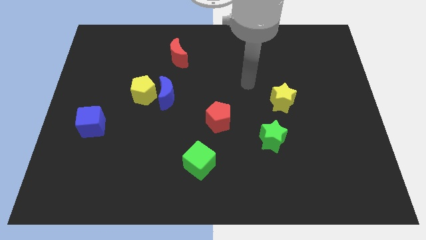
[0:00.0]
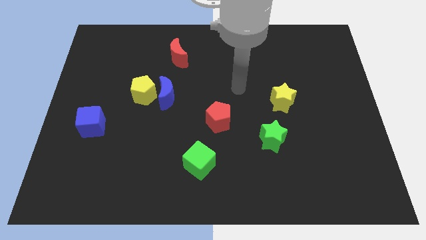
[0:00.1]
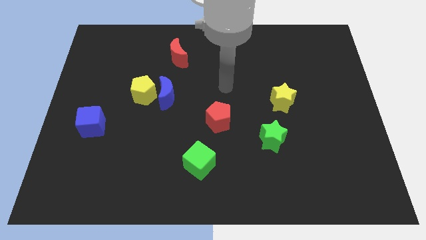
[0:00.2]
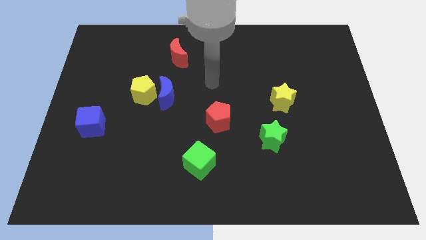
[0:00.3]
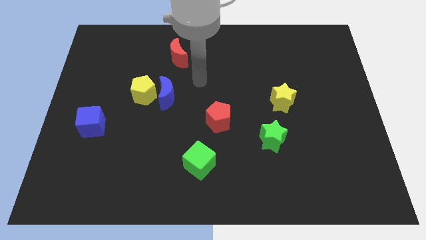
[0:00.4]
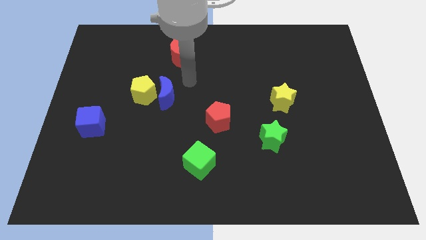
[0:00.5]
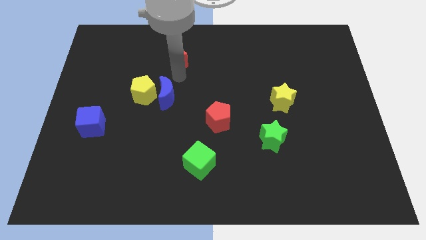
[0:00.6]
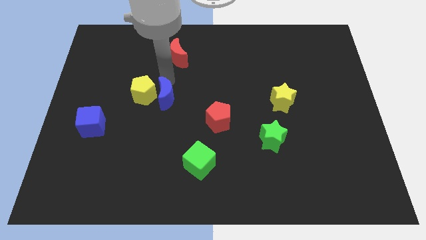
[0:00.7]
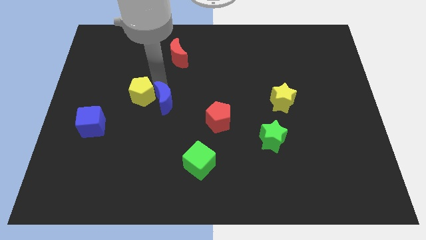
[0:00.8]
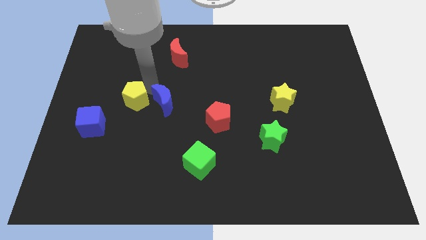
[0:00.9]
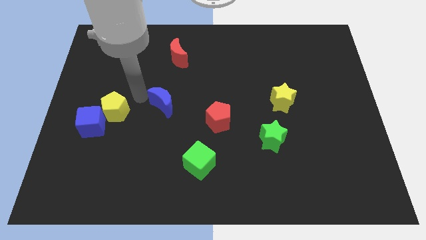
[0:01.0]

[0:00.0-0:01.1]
pull the blue moon apart from the yellow pentagon

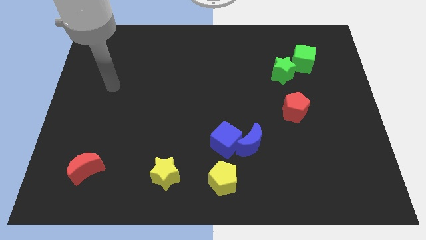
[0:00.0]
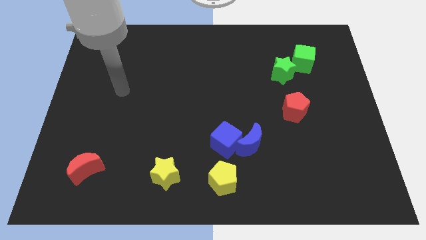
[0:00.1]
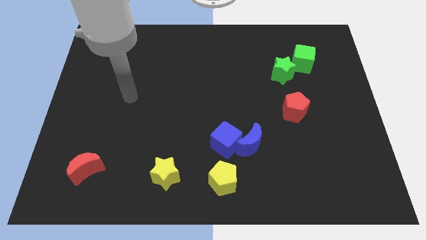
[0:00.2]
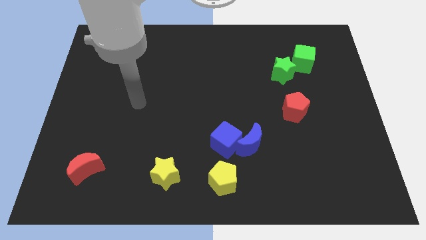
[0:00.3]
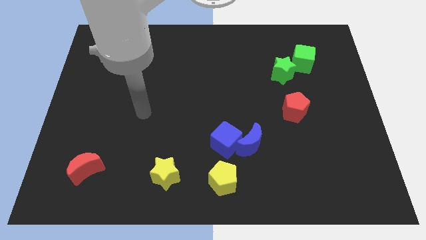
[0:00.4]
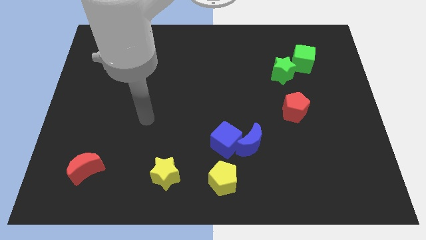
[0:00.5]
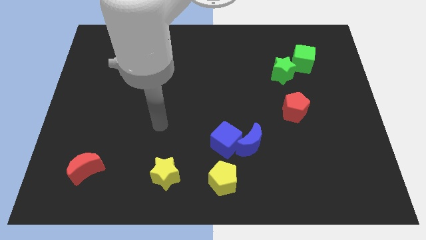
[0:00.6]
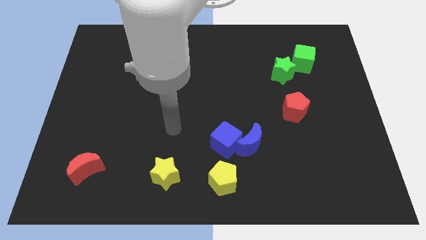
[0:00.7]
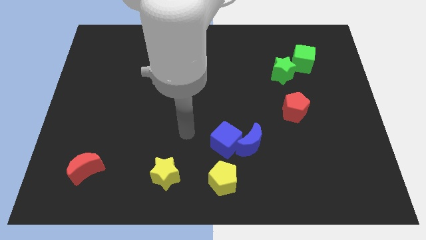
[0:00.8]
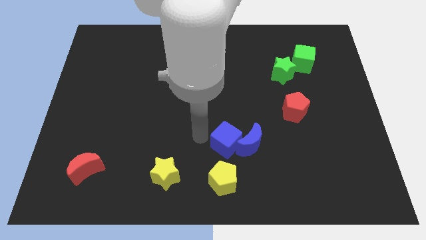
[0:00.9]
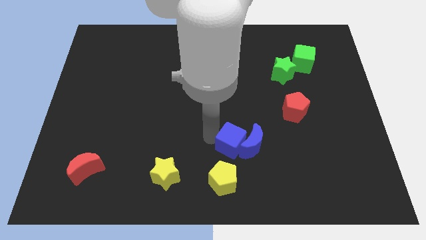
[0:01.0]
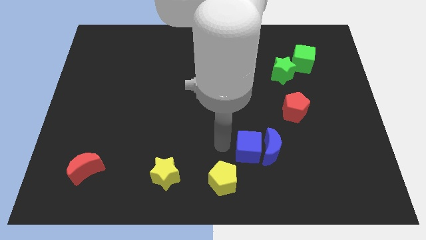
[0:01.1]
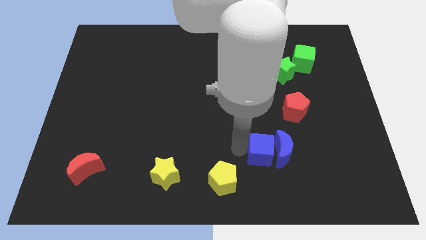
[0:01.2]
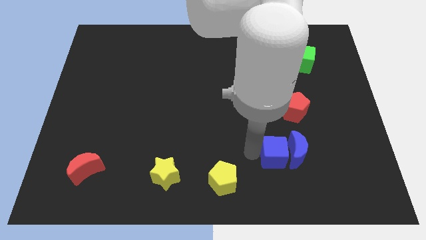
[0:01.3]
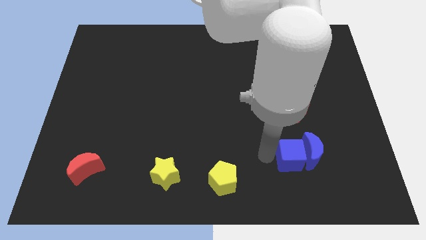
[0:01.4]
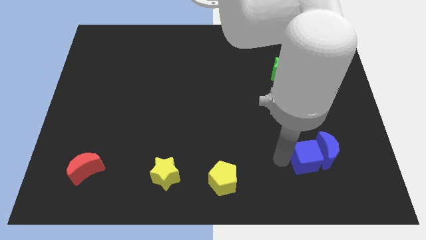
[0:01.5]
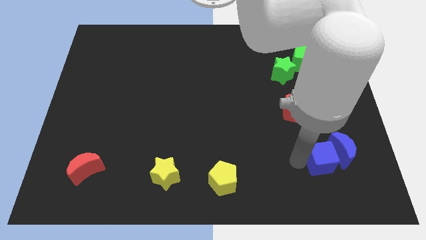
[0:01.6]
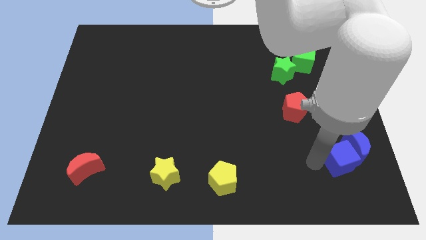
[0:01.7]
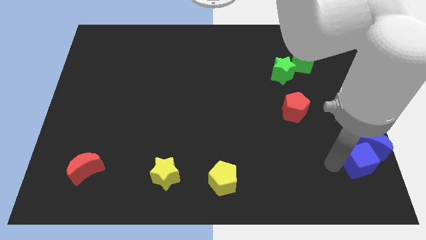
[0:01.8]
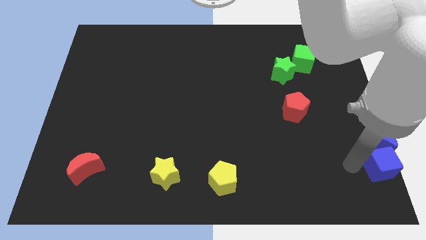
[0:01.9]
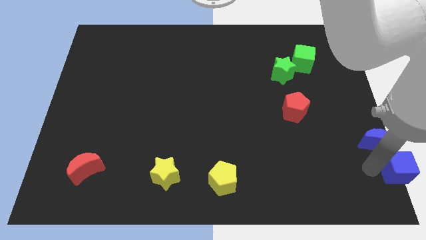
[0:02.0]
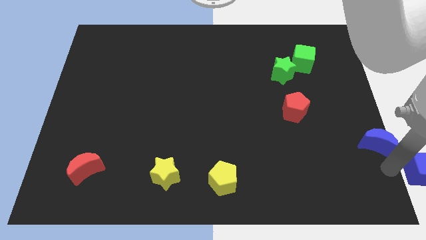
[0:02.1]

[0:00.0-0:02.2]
pull the blue moon apart from the blue cube

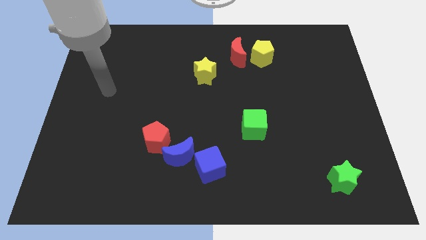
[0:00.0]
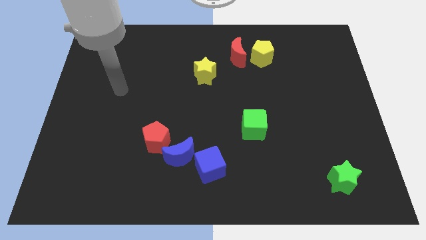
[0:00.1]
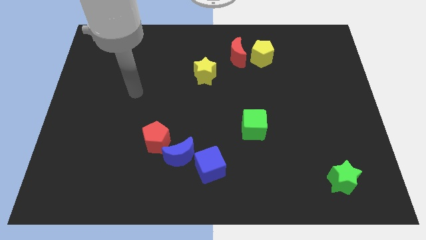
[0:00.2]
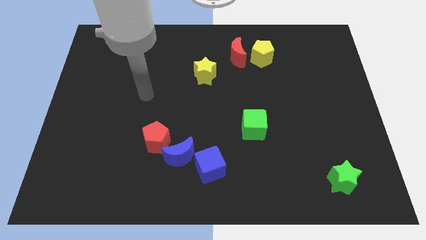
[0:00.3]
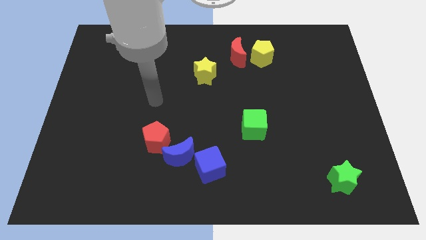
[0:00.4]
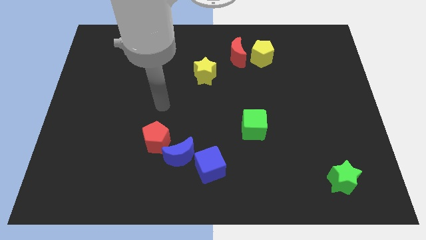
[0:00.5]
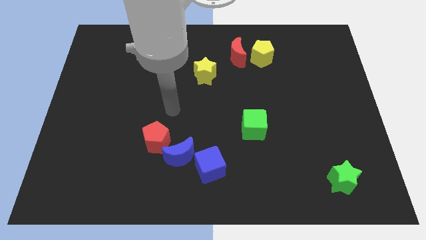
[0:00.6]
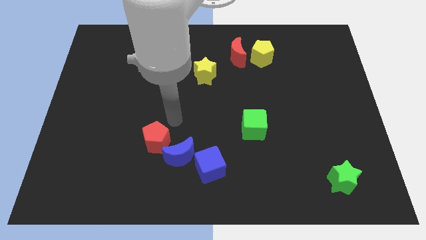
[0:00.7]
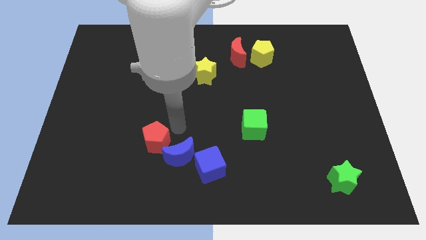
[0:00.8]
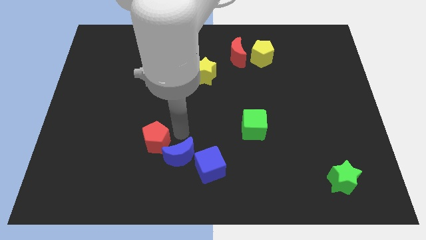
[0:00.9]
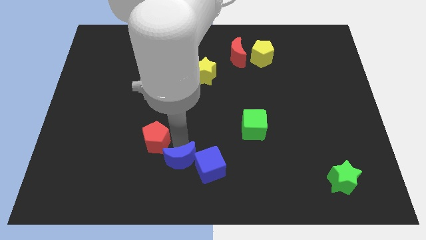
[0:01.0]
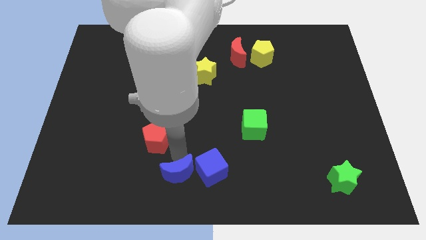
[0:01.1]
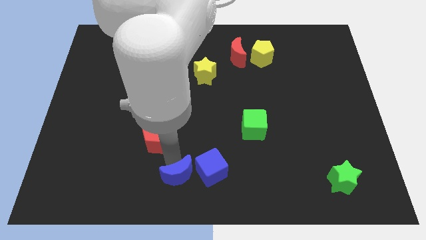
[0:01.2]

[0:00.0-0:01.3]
pull the red pentagon apart from the blue moon

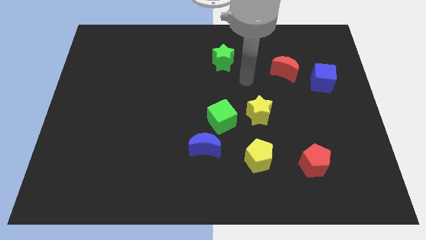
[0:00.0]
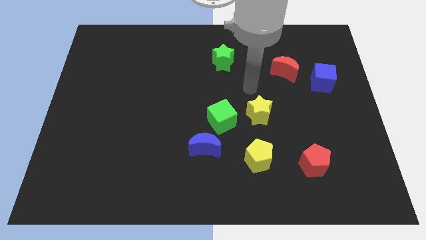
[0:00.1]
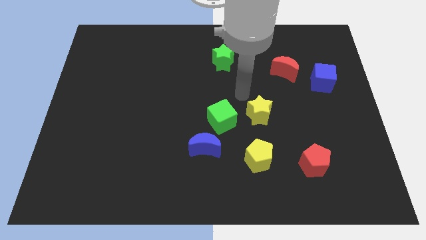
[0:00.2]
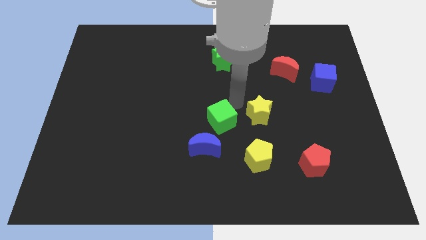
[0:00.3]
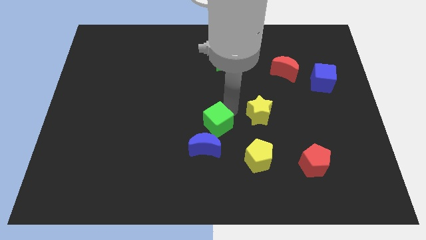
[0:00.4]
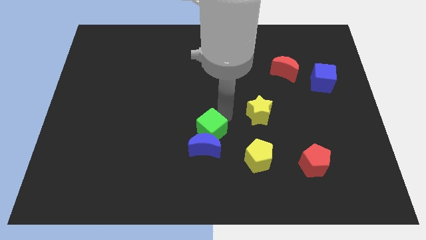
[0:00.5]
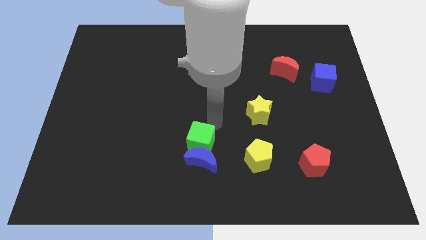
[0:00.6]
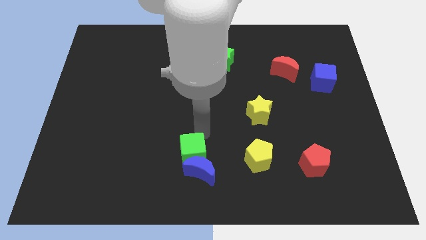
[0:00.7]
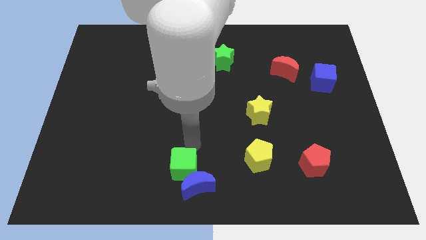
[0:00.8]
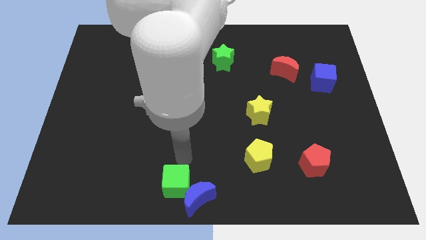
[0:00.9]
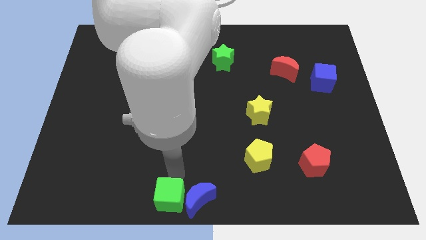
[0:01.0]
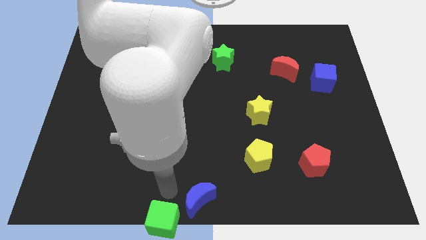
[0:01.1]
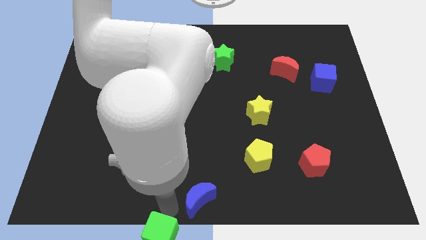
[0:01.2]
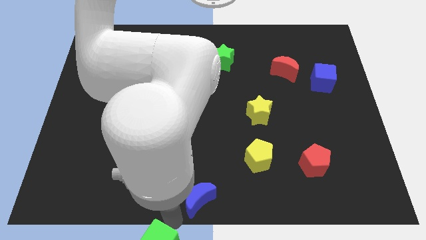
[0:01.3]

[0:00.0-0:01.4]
pull the blue moon apart from the green cube

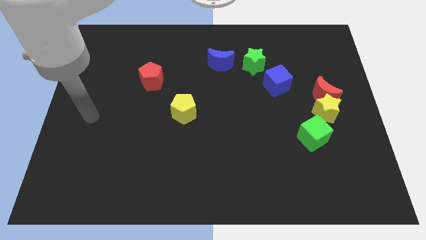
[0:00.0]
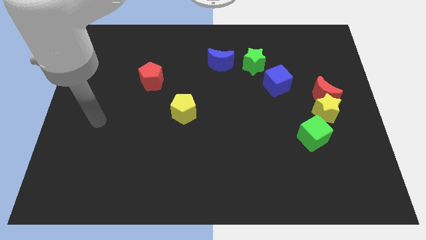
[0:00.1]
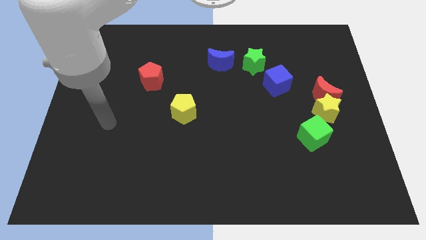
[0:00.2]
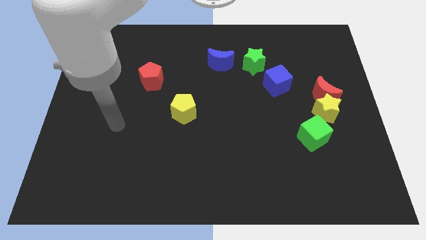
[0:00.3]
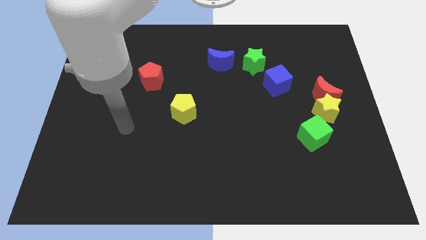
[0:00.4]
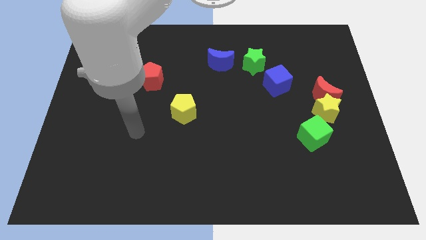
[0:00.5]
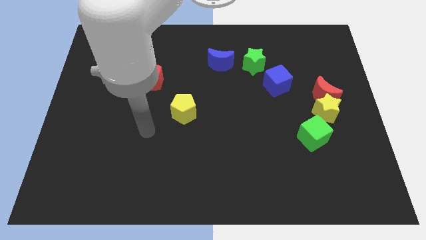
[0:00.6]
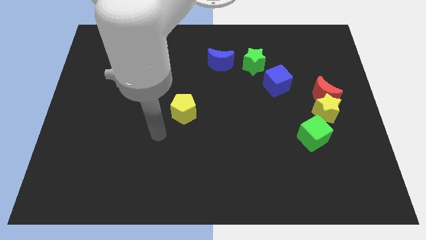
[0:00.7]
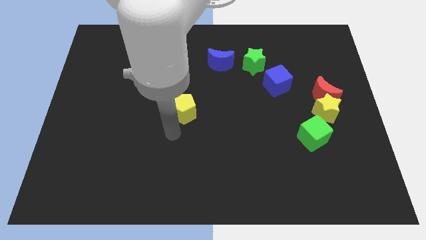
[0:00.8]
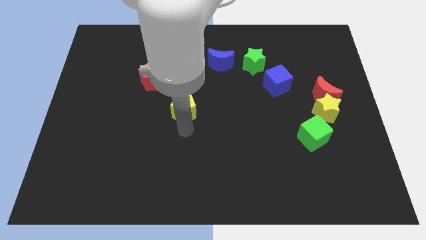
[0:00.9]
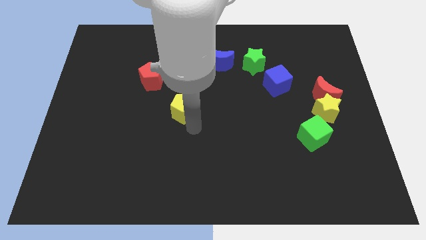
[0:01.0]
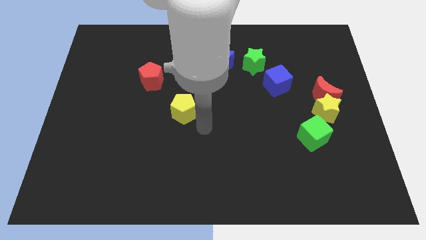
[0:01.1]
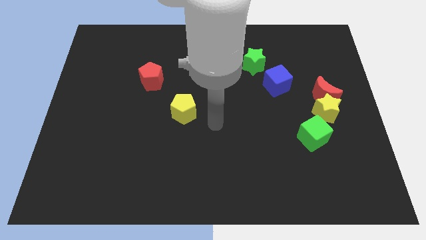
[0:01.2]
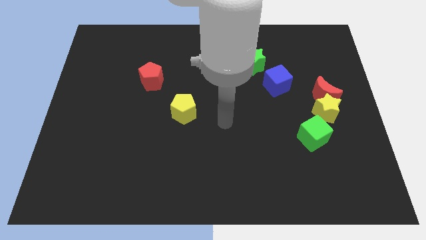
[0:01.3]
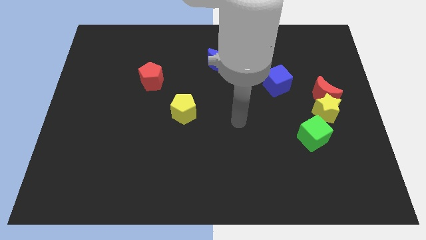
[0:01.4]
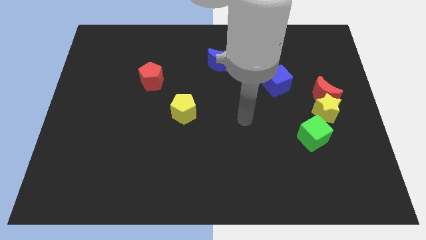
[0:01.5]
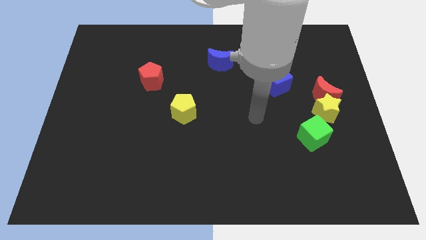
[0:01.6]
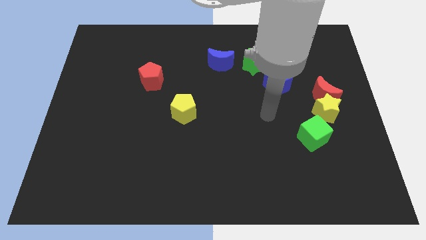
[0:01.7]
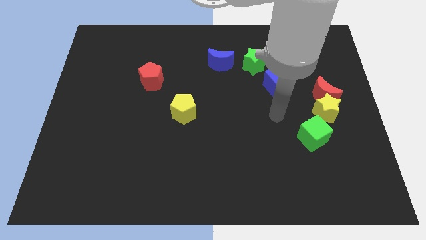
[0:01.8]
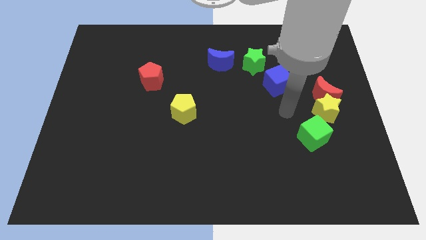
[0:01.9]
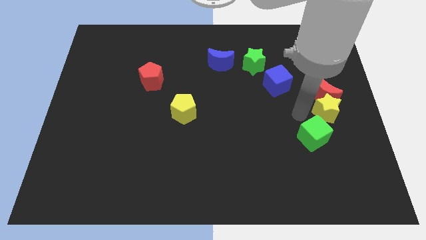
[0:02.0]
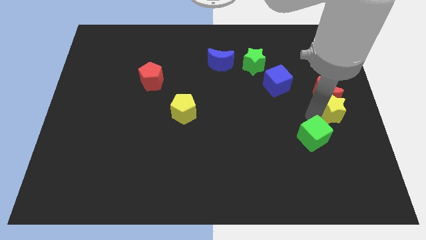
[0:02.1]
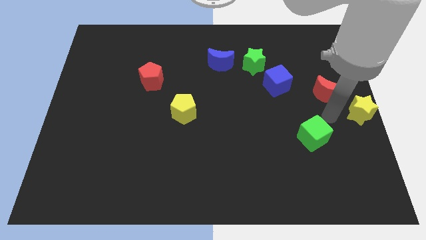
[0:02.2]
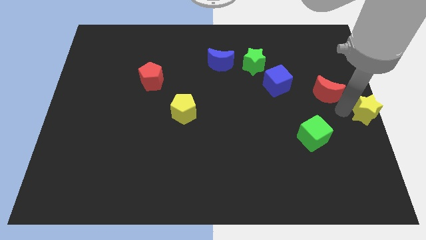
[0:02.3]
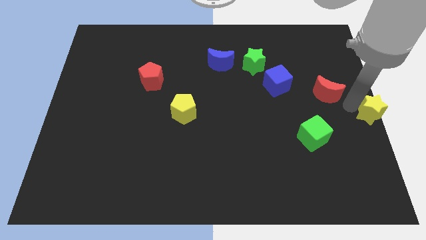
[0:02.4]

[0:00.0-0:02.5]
pull the red moon apart from the yellow star

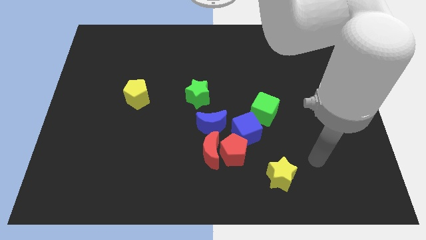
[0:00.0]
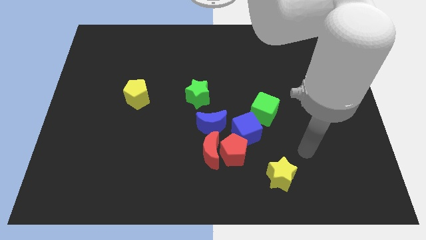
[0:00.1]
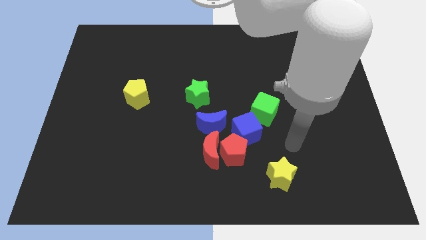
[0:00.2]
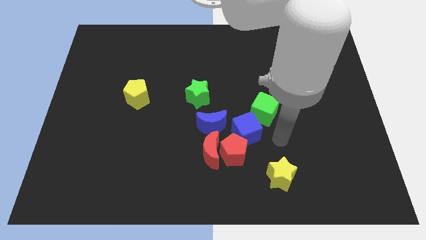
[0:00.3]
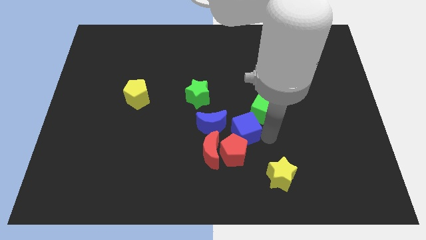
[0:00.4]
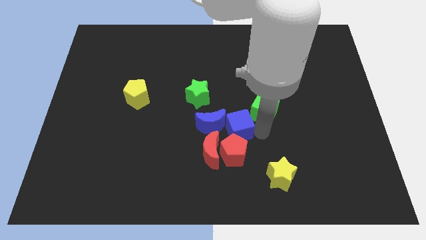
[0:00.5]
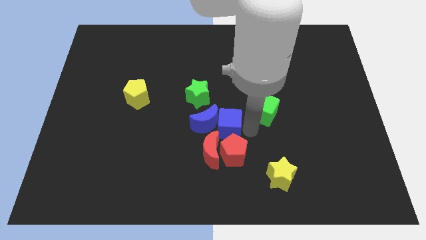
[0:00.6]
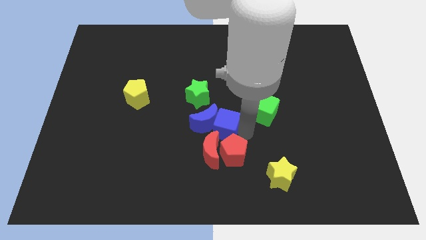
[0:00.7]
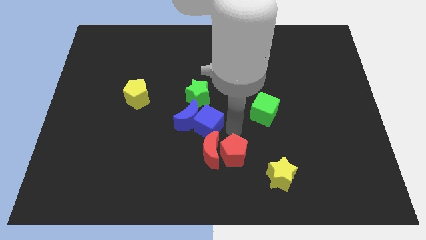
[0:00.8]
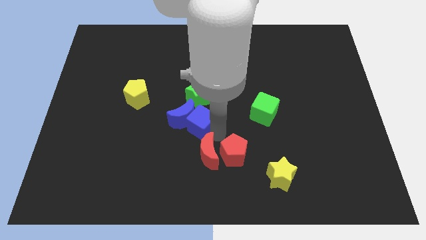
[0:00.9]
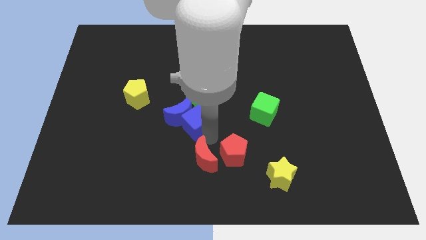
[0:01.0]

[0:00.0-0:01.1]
pull the red pentagon apart from the red moon, blue cube, and blue moon
